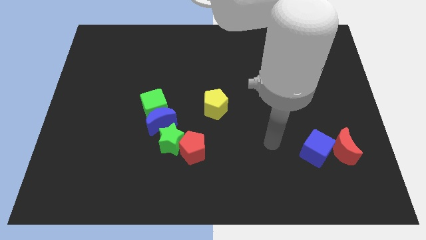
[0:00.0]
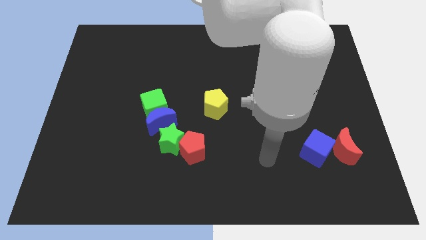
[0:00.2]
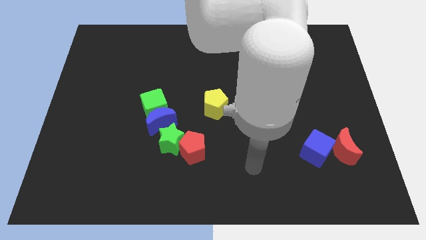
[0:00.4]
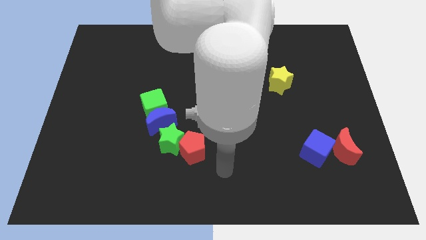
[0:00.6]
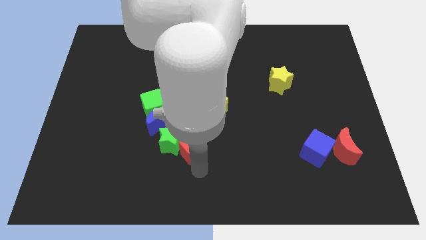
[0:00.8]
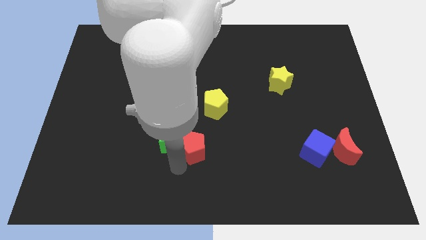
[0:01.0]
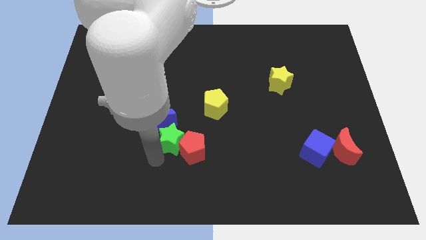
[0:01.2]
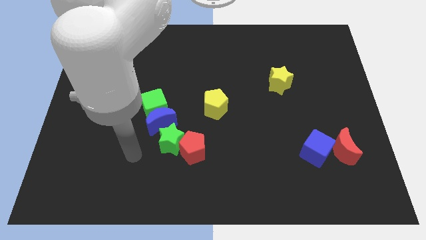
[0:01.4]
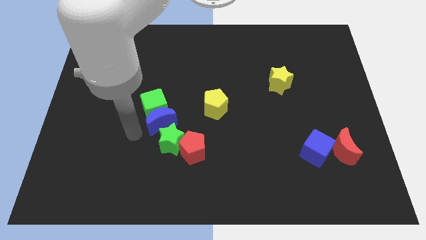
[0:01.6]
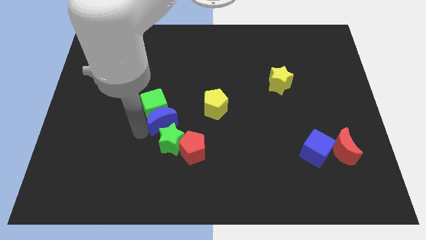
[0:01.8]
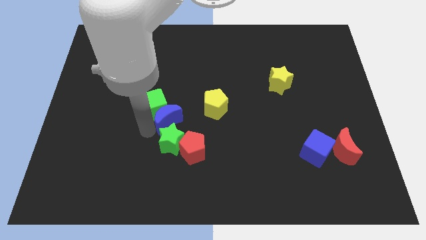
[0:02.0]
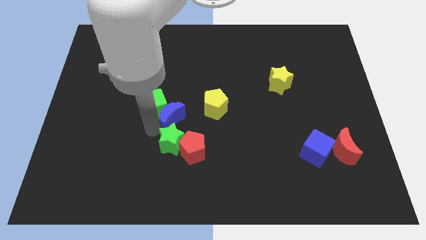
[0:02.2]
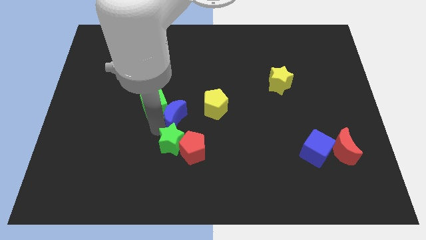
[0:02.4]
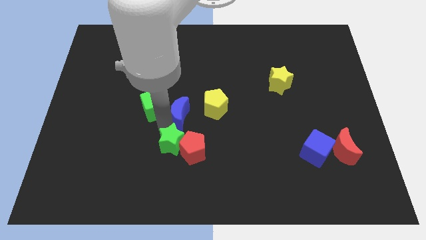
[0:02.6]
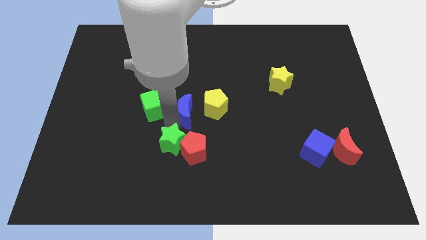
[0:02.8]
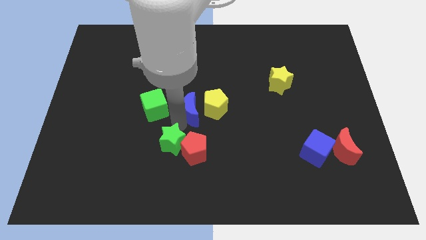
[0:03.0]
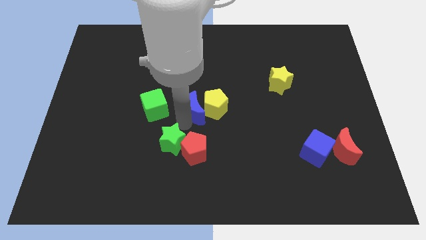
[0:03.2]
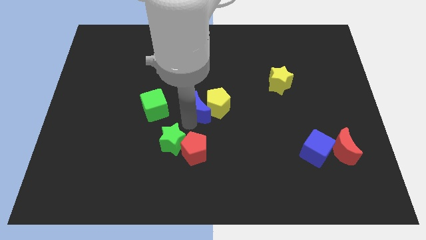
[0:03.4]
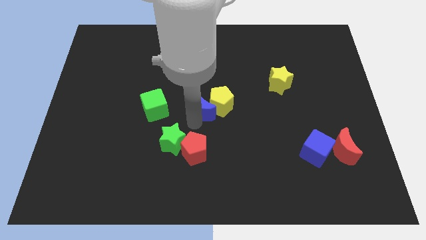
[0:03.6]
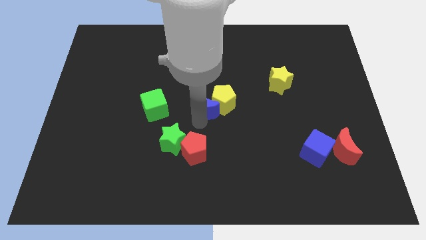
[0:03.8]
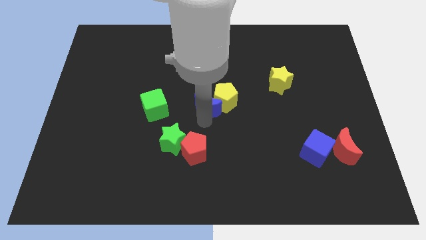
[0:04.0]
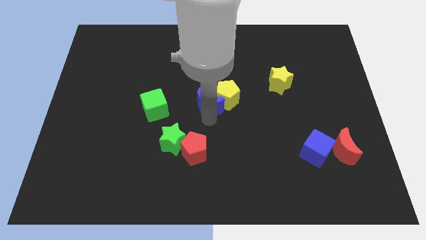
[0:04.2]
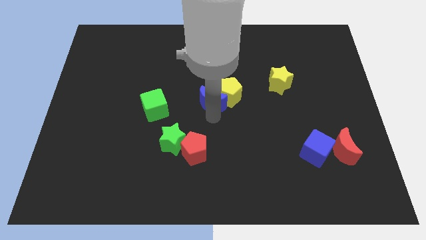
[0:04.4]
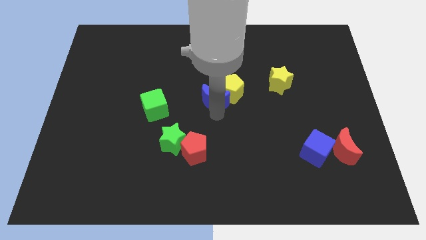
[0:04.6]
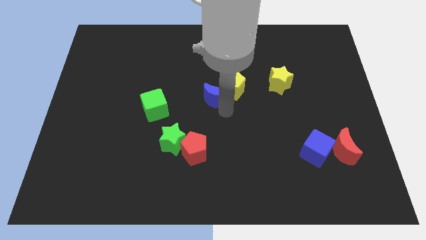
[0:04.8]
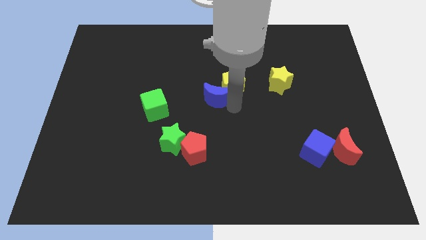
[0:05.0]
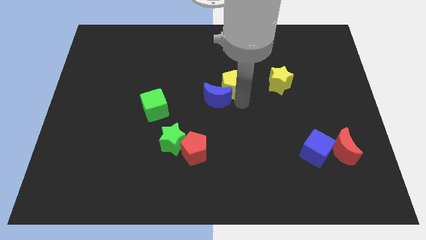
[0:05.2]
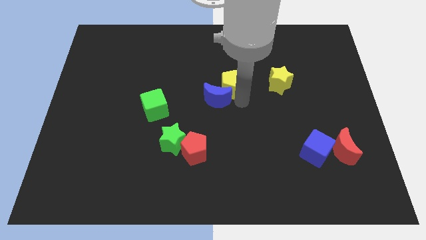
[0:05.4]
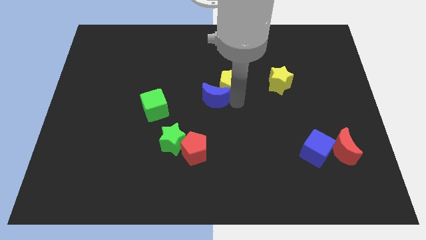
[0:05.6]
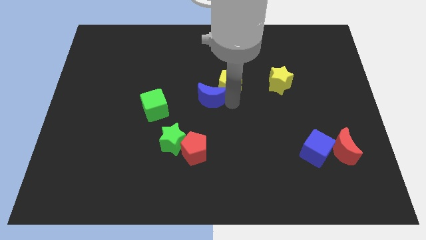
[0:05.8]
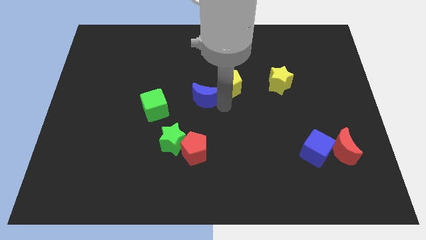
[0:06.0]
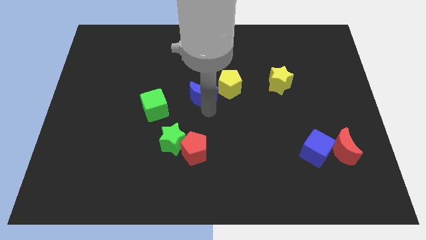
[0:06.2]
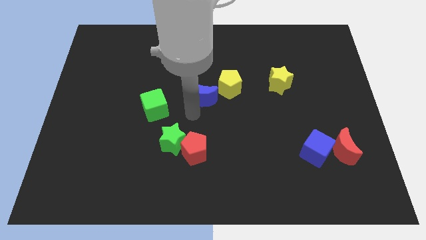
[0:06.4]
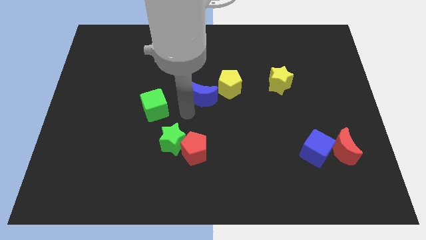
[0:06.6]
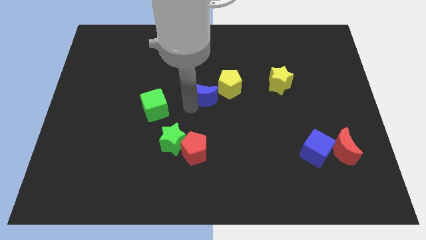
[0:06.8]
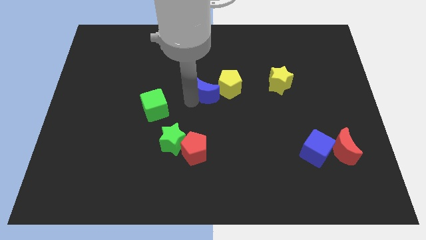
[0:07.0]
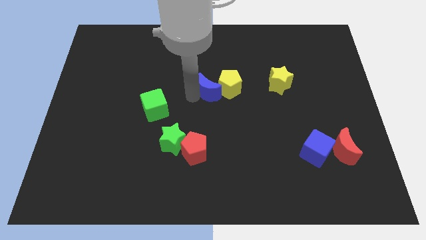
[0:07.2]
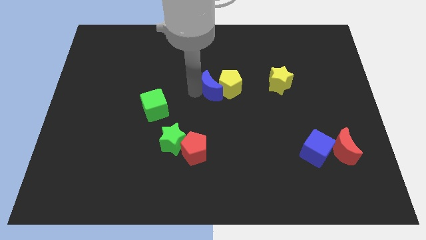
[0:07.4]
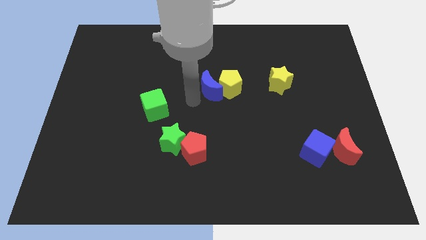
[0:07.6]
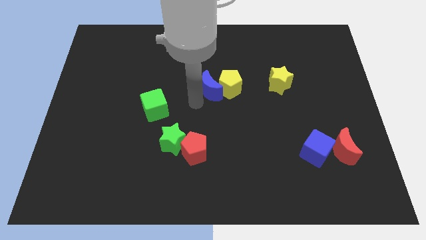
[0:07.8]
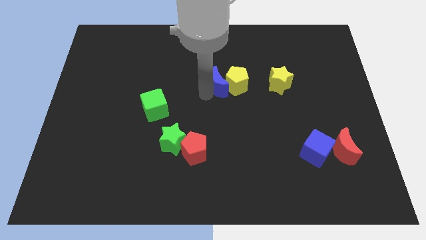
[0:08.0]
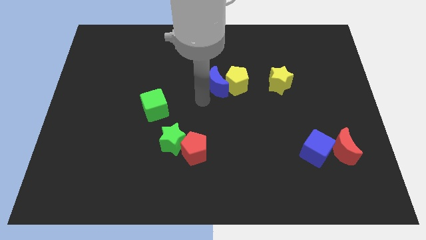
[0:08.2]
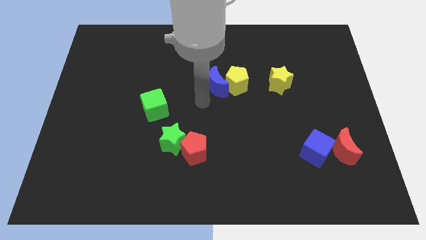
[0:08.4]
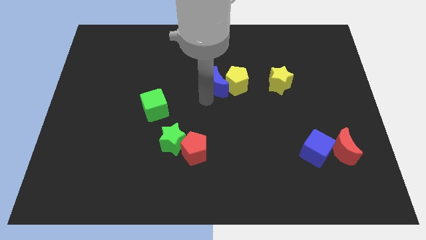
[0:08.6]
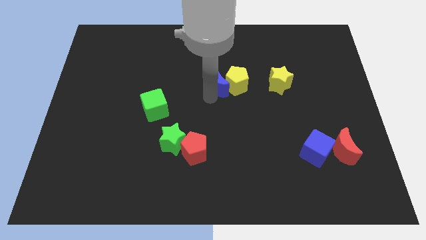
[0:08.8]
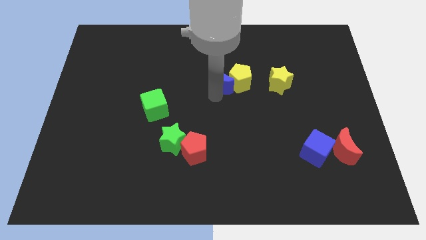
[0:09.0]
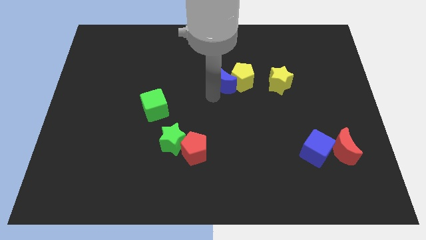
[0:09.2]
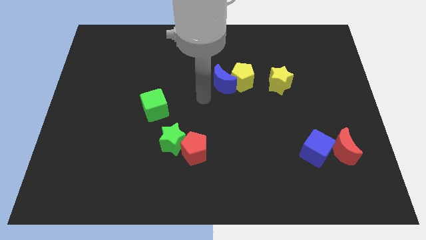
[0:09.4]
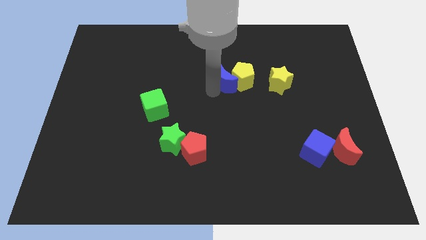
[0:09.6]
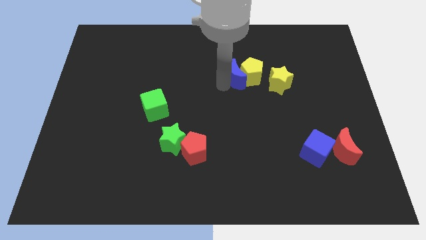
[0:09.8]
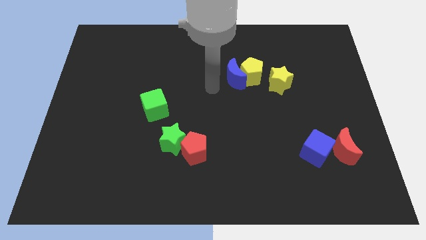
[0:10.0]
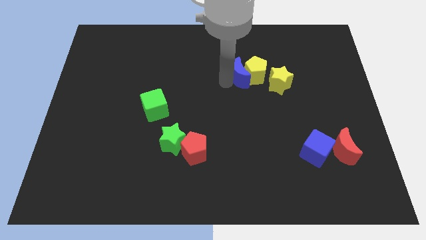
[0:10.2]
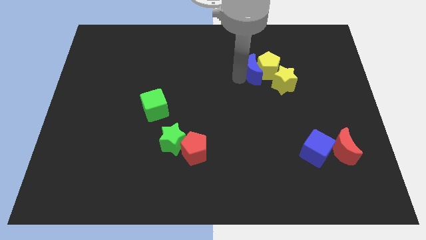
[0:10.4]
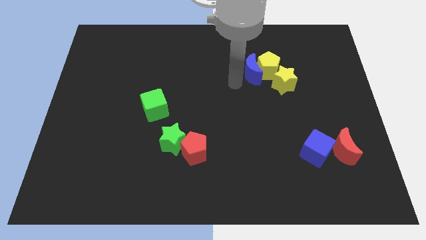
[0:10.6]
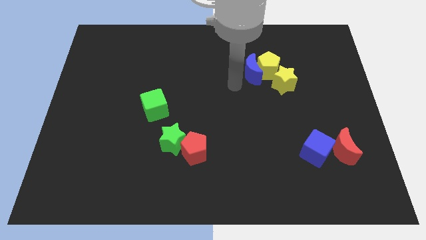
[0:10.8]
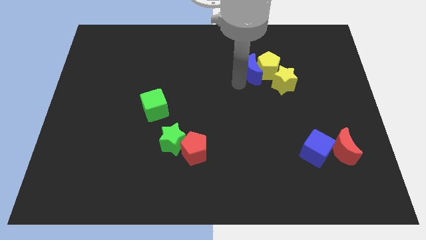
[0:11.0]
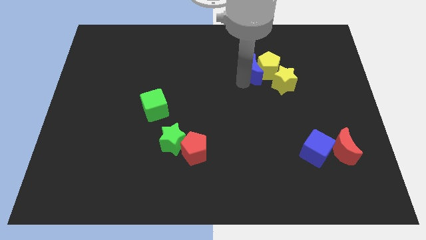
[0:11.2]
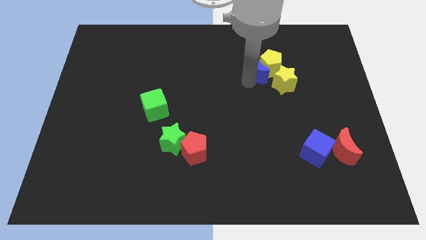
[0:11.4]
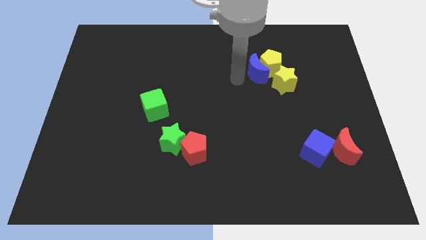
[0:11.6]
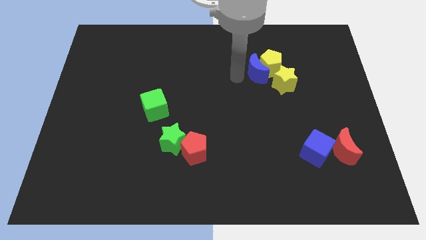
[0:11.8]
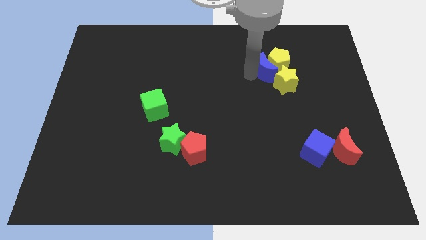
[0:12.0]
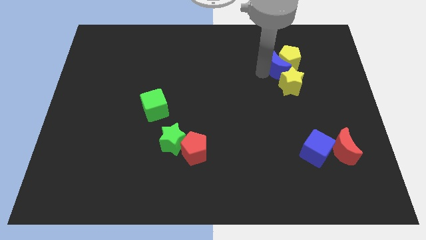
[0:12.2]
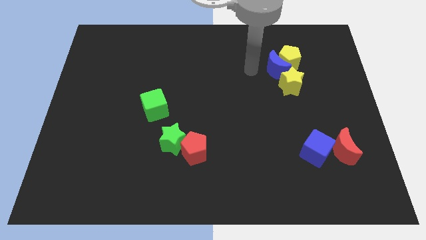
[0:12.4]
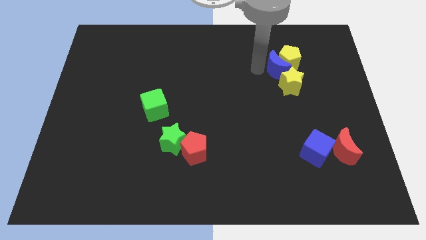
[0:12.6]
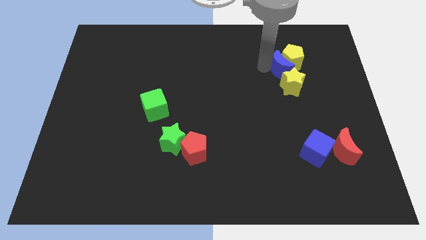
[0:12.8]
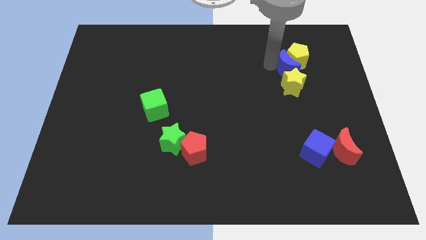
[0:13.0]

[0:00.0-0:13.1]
move the blue moon to the top right side of the yellow star
